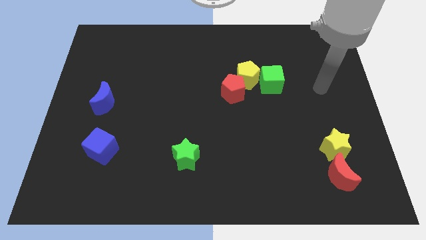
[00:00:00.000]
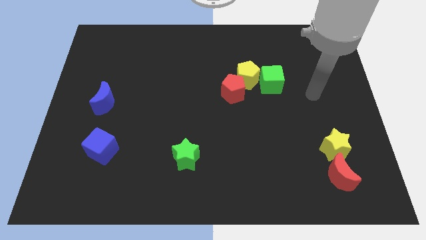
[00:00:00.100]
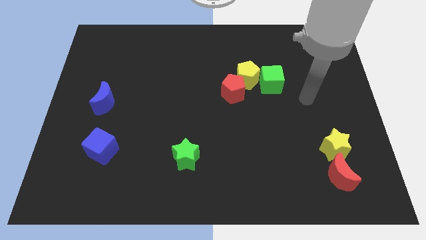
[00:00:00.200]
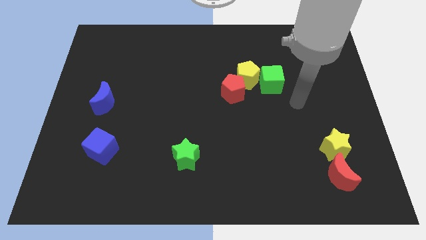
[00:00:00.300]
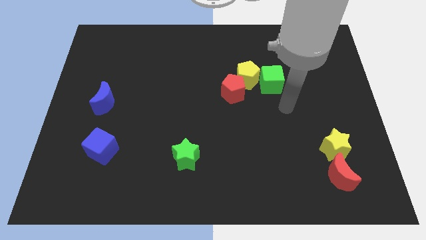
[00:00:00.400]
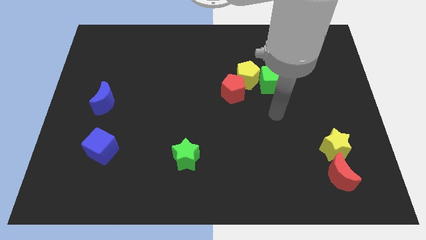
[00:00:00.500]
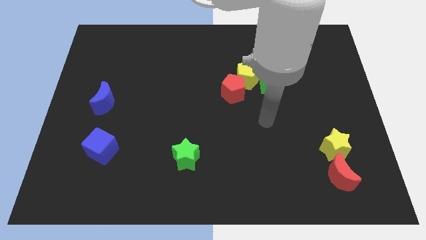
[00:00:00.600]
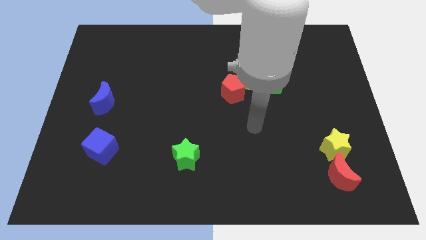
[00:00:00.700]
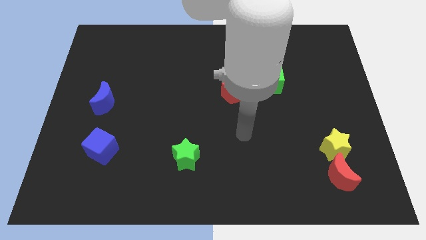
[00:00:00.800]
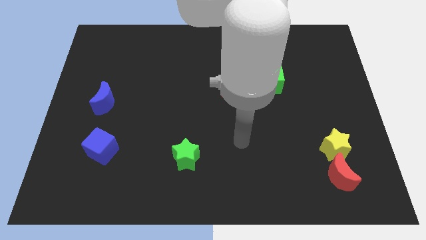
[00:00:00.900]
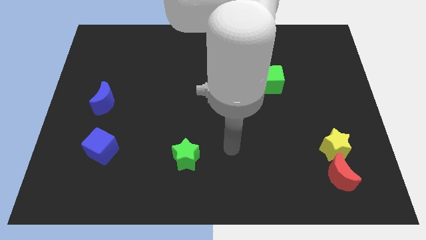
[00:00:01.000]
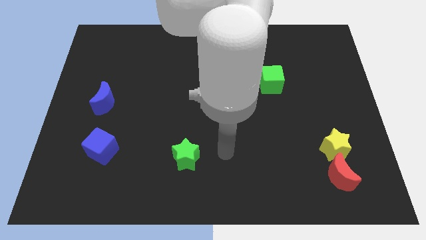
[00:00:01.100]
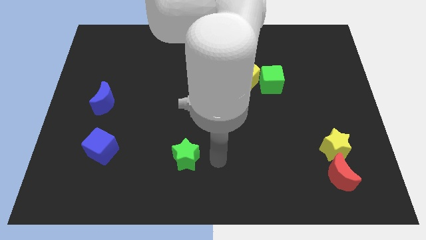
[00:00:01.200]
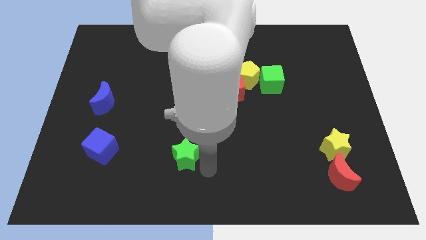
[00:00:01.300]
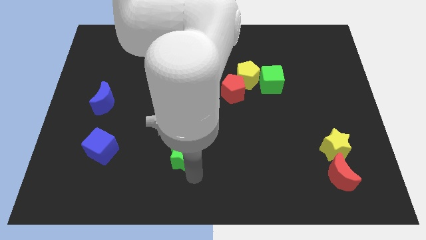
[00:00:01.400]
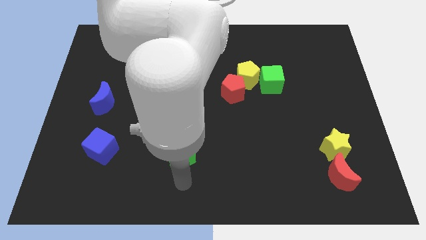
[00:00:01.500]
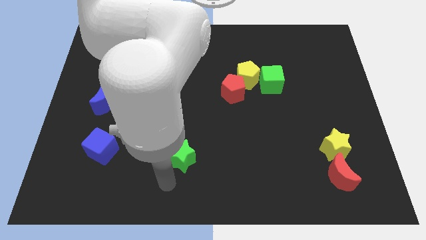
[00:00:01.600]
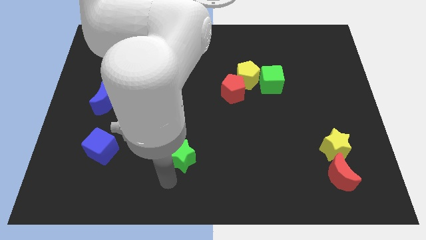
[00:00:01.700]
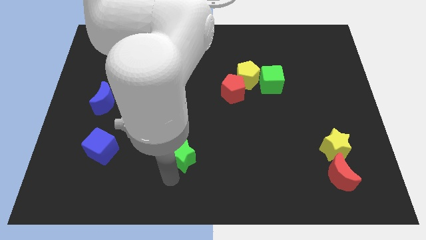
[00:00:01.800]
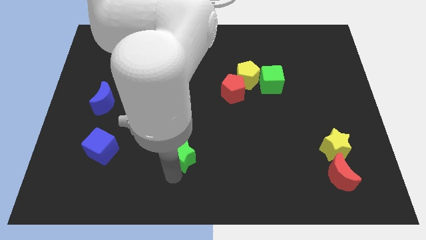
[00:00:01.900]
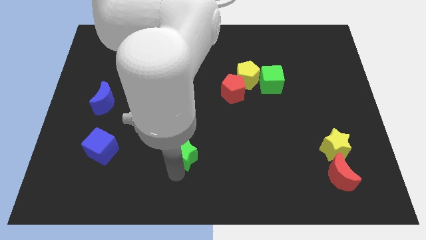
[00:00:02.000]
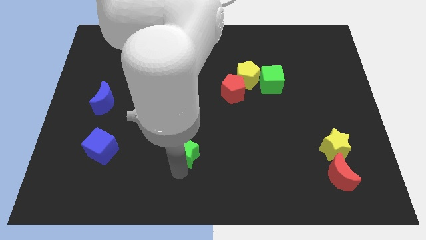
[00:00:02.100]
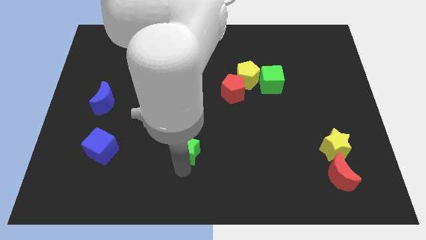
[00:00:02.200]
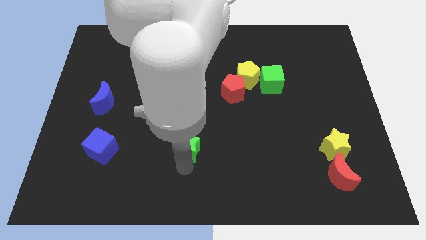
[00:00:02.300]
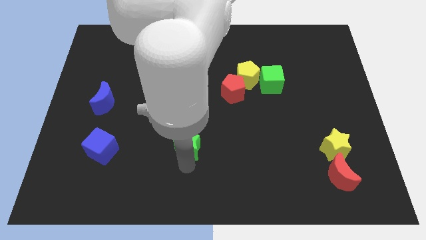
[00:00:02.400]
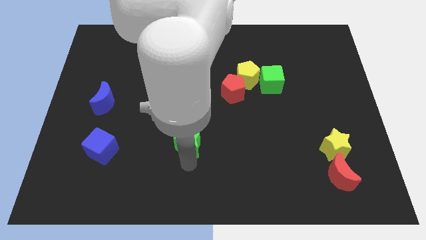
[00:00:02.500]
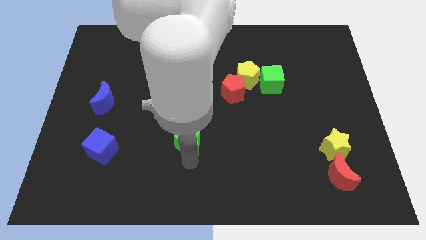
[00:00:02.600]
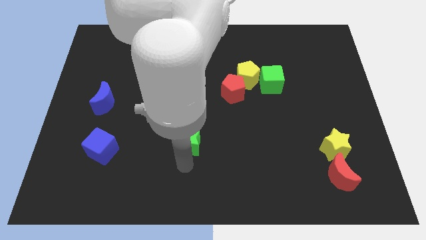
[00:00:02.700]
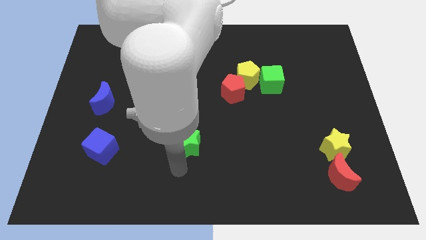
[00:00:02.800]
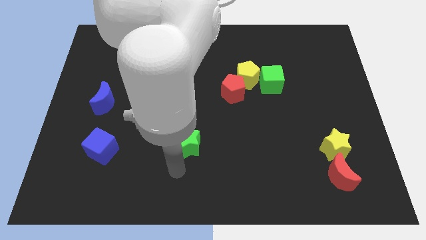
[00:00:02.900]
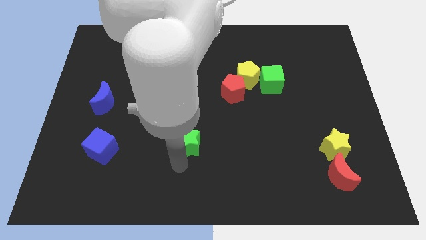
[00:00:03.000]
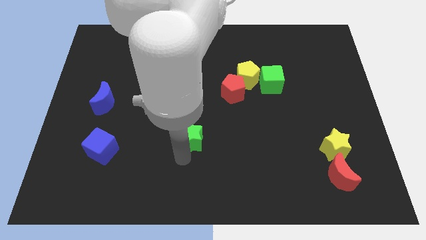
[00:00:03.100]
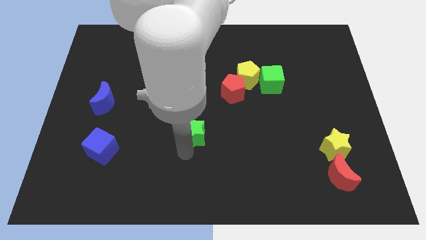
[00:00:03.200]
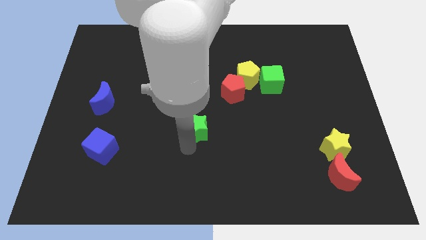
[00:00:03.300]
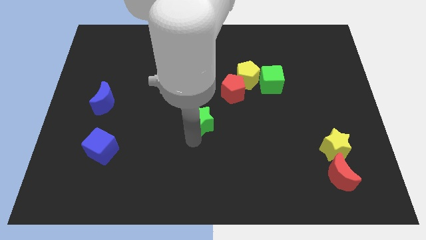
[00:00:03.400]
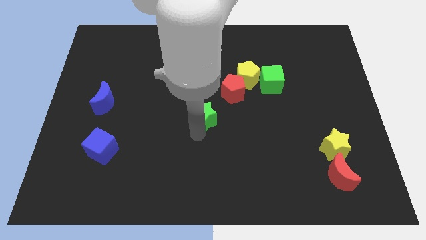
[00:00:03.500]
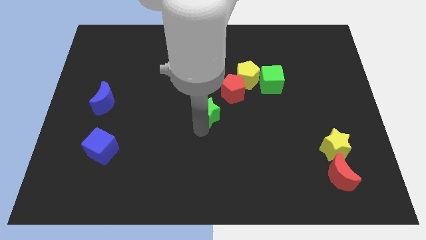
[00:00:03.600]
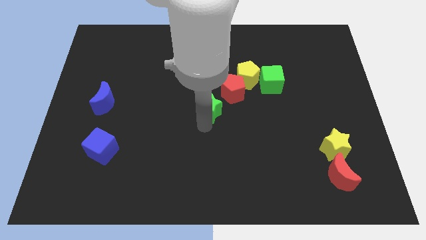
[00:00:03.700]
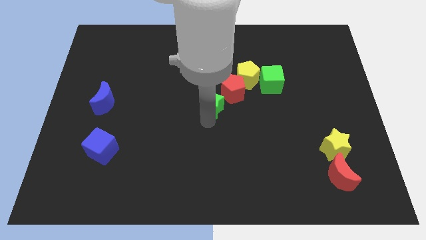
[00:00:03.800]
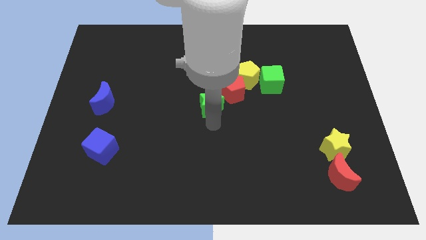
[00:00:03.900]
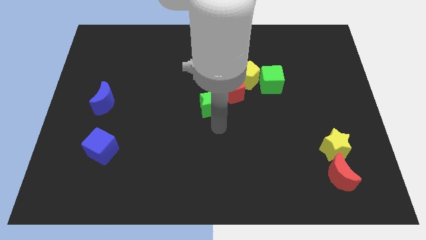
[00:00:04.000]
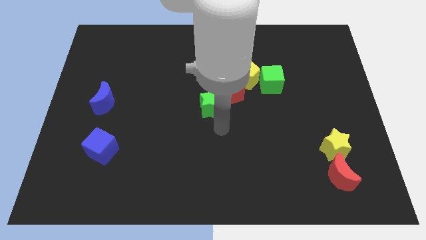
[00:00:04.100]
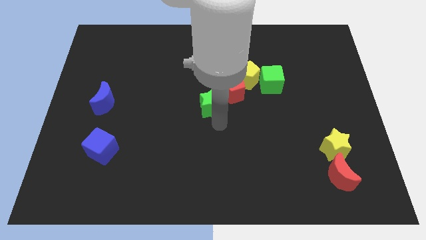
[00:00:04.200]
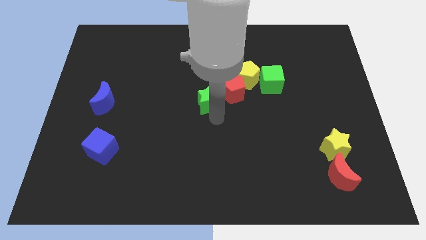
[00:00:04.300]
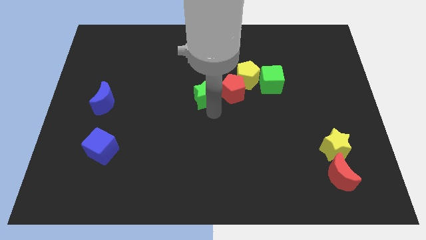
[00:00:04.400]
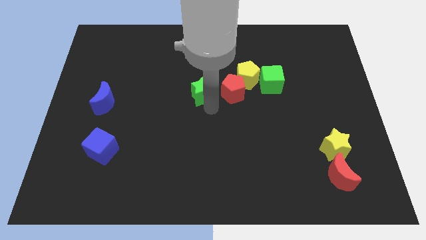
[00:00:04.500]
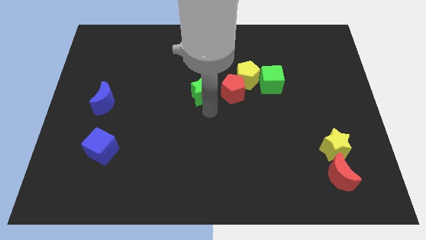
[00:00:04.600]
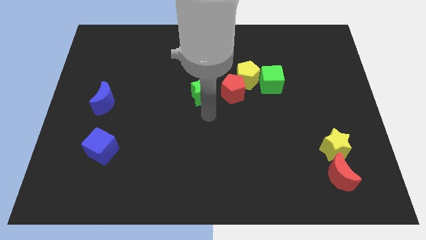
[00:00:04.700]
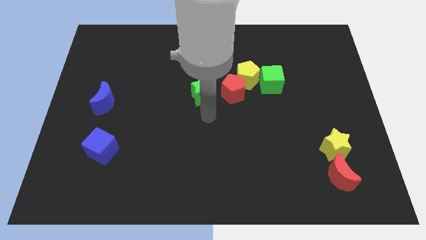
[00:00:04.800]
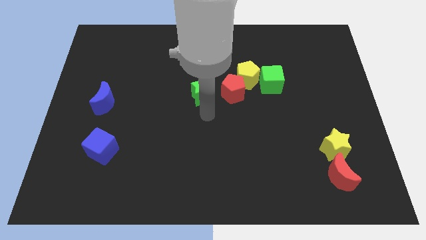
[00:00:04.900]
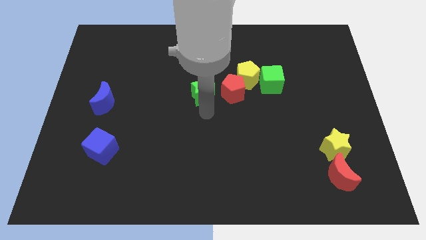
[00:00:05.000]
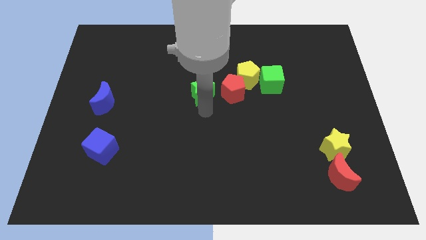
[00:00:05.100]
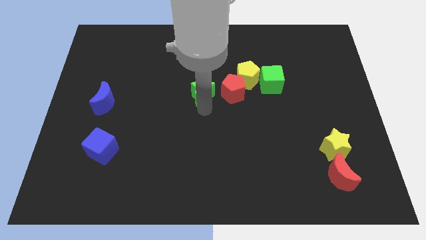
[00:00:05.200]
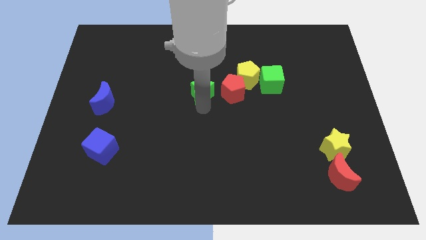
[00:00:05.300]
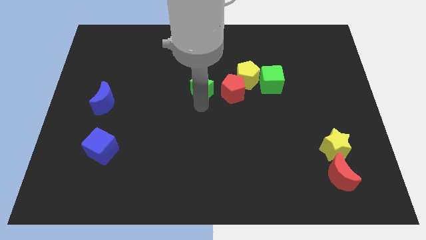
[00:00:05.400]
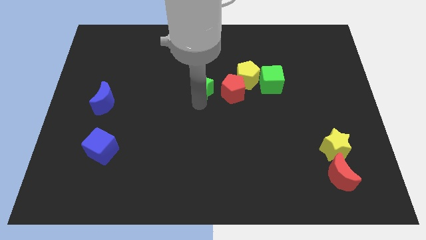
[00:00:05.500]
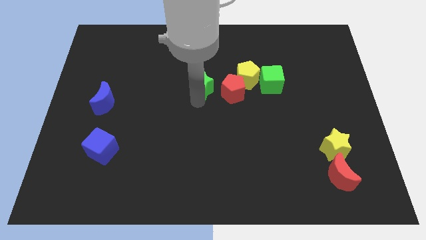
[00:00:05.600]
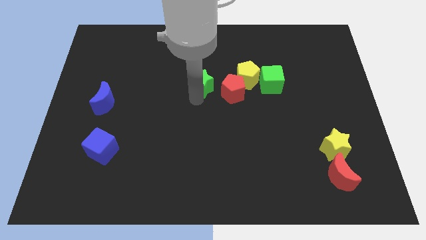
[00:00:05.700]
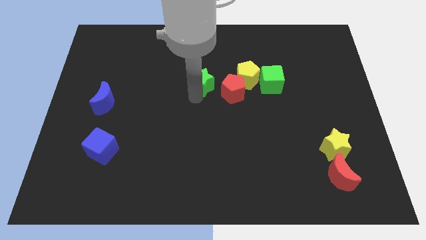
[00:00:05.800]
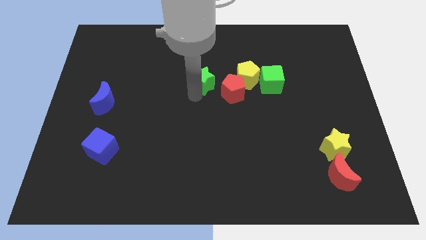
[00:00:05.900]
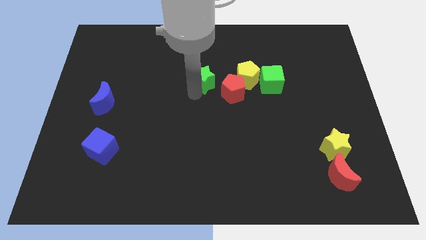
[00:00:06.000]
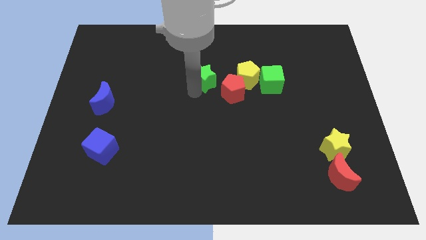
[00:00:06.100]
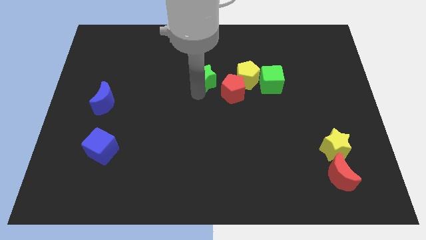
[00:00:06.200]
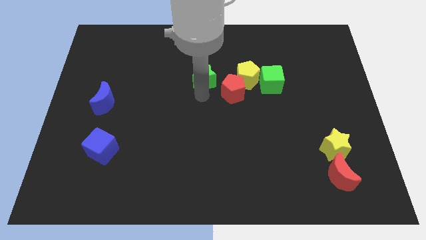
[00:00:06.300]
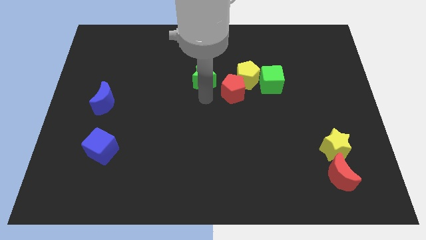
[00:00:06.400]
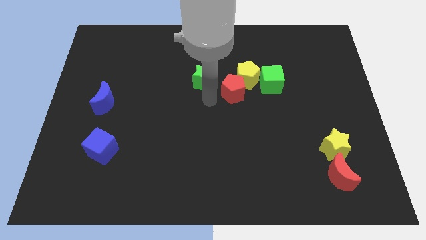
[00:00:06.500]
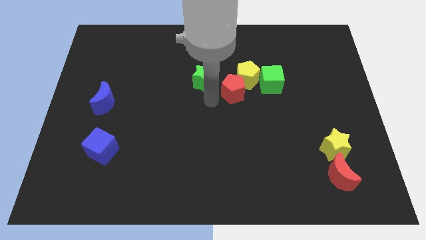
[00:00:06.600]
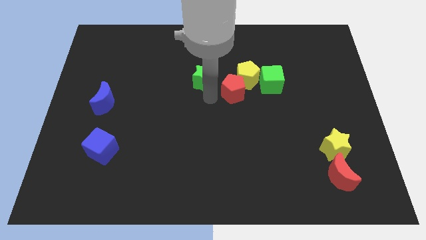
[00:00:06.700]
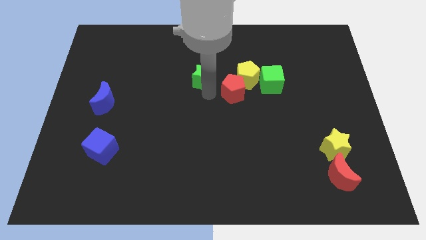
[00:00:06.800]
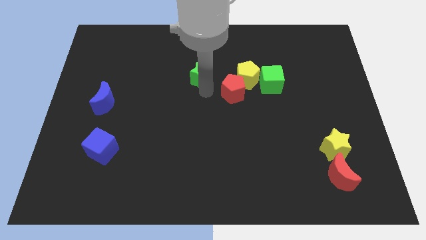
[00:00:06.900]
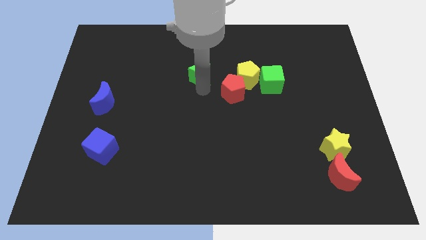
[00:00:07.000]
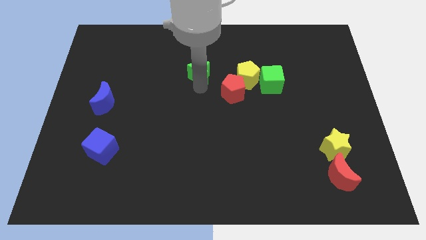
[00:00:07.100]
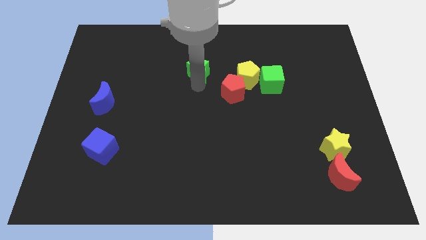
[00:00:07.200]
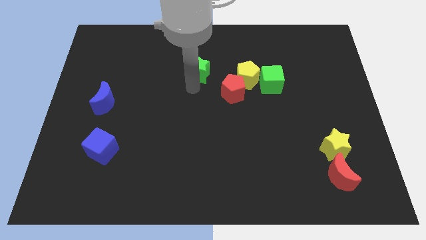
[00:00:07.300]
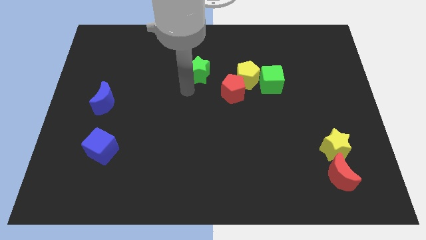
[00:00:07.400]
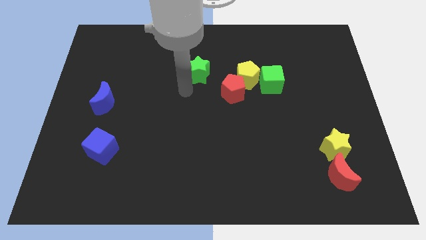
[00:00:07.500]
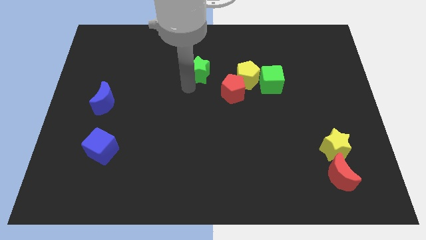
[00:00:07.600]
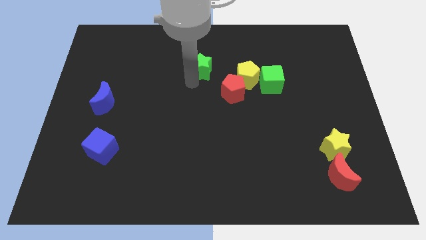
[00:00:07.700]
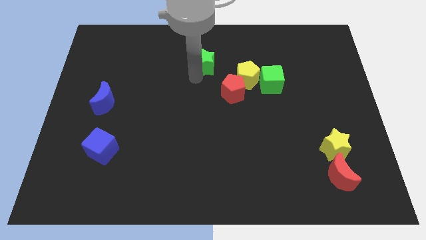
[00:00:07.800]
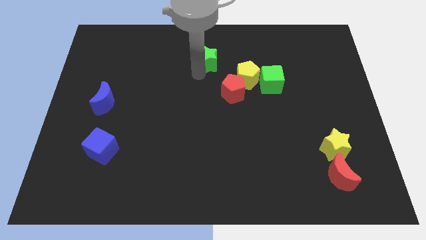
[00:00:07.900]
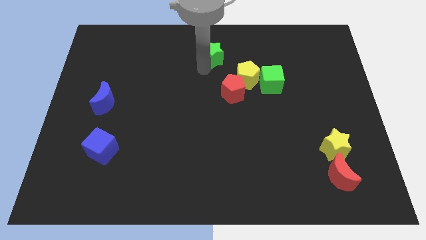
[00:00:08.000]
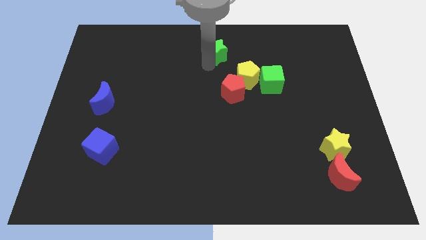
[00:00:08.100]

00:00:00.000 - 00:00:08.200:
put the green star to the top side
